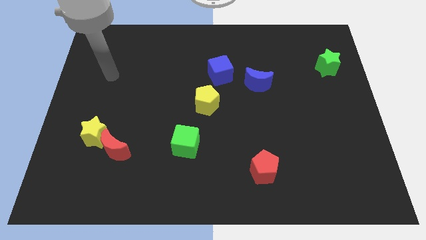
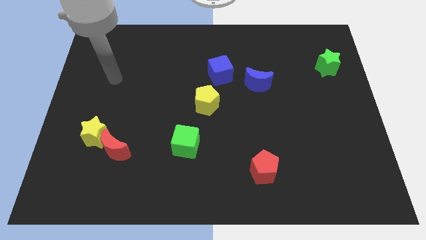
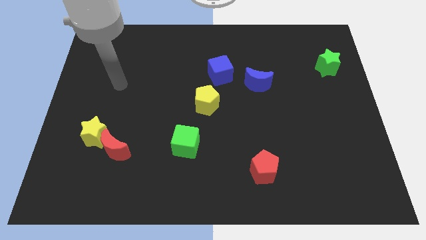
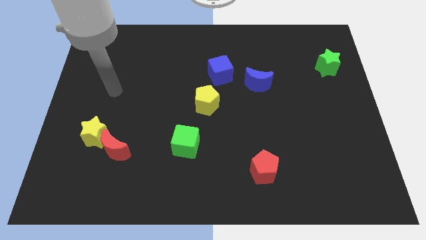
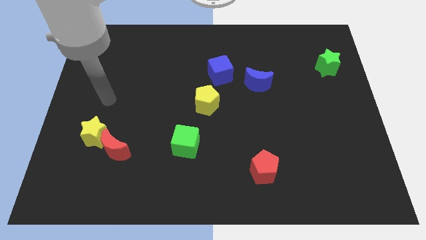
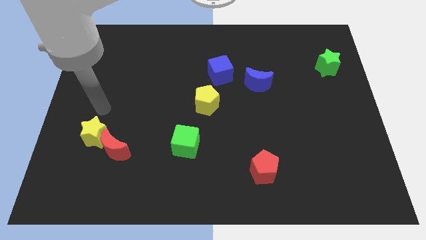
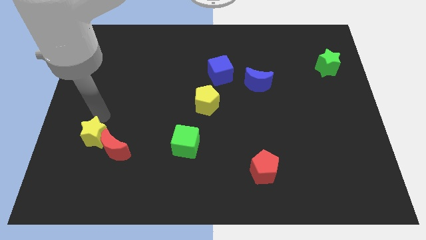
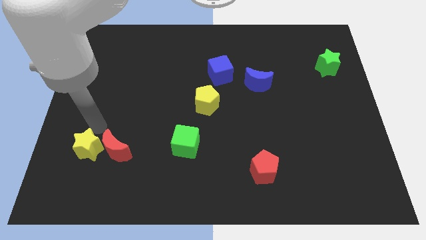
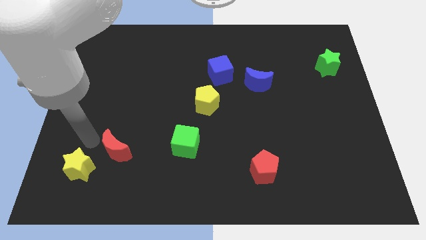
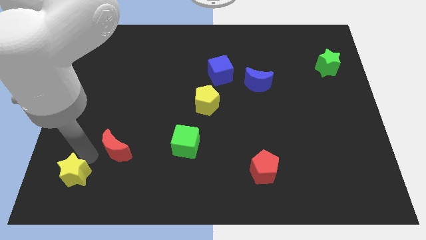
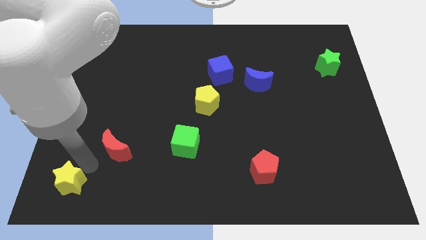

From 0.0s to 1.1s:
separate the red moon from the yellow star

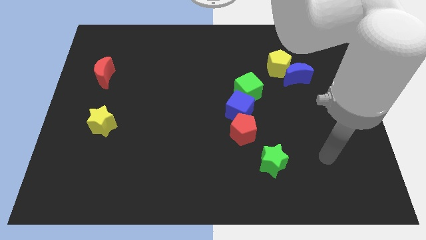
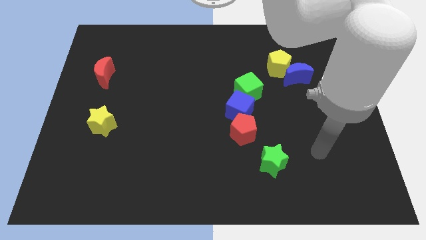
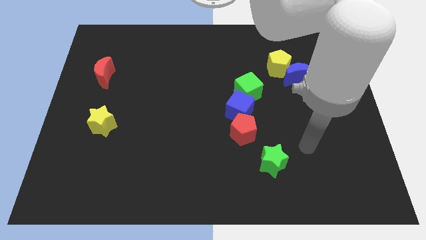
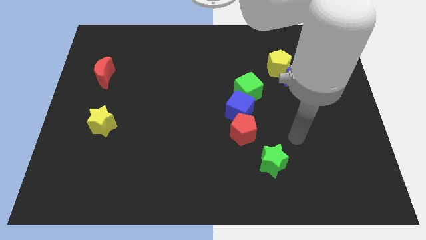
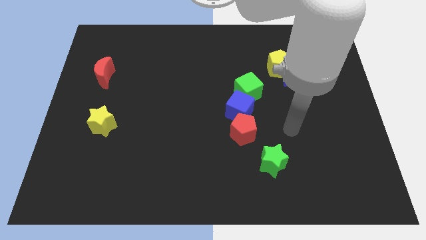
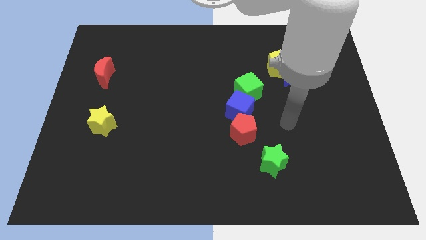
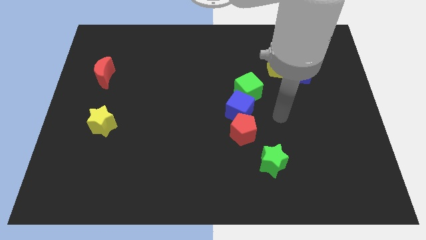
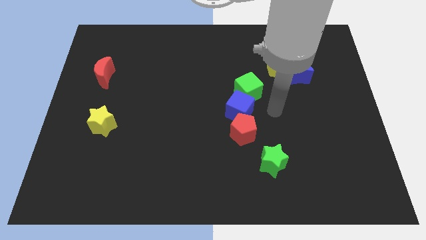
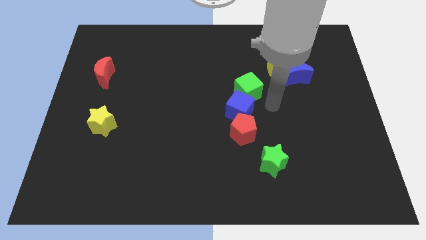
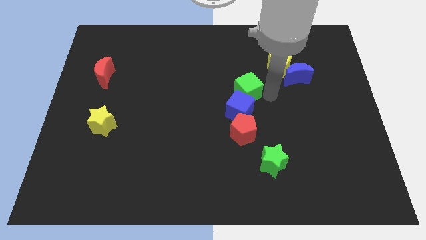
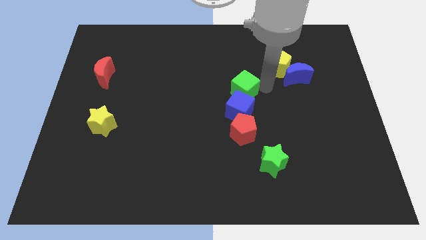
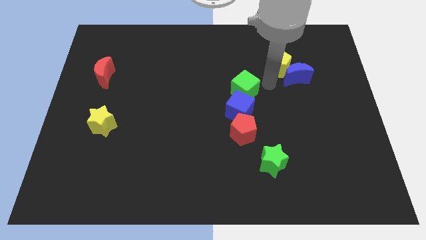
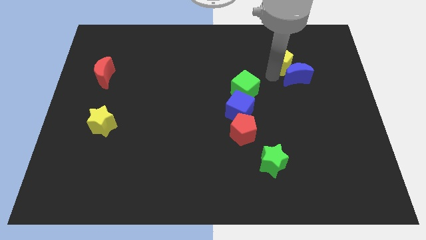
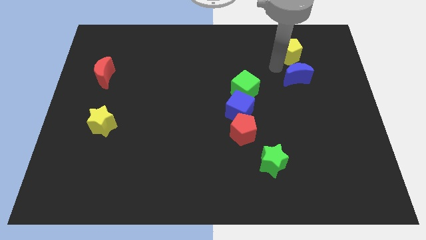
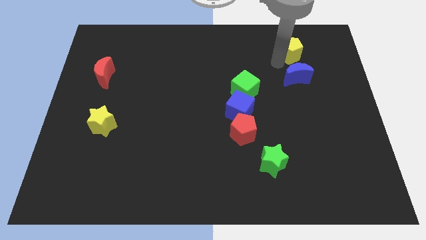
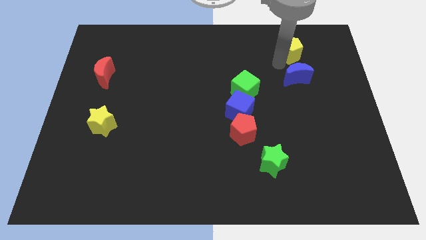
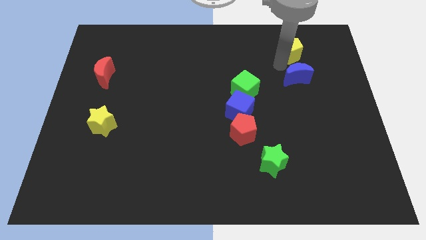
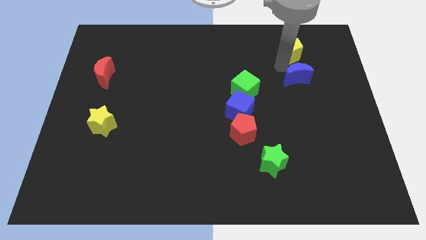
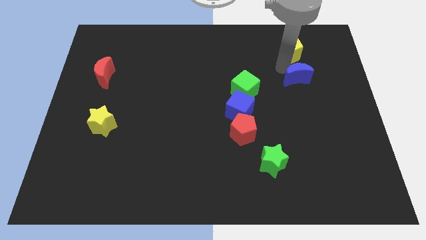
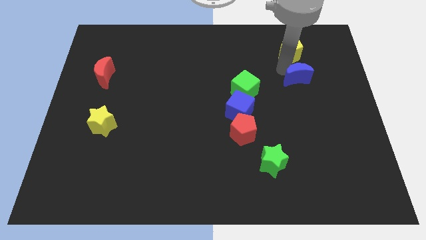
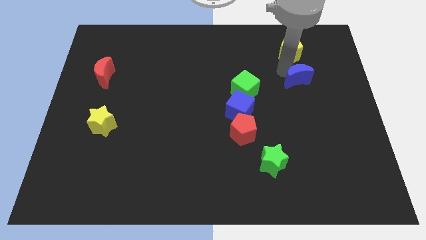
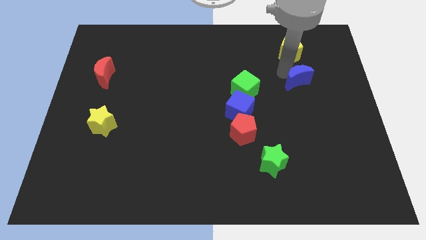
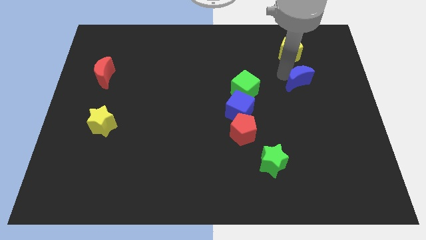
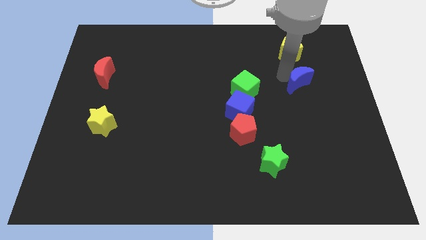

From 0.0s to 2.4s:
move the blue moon away from the yellow pentagon

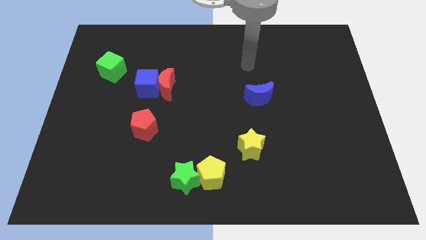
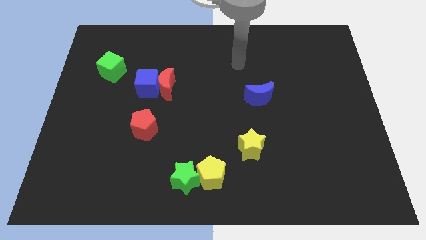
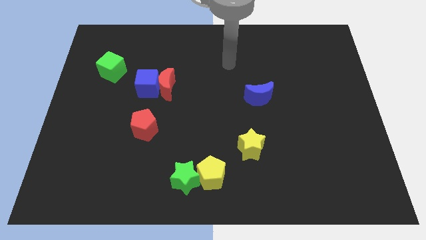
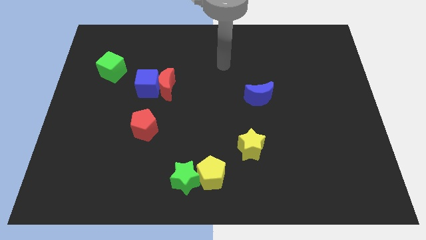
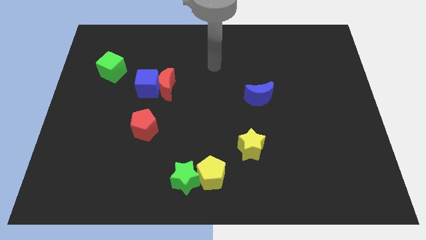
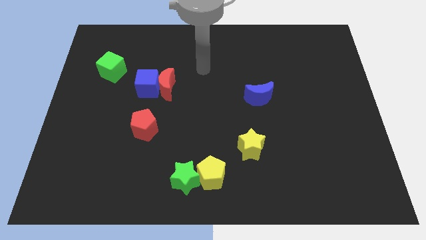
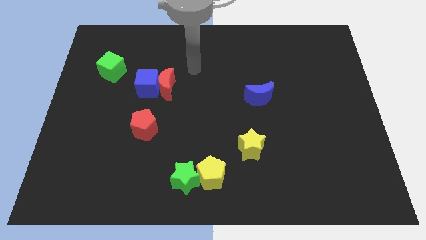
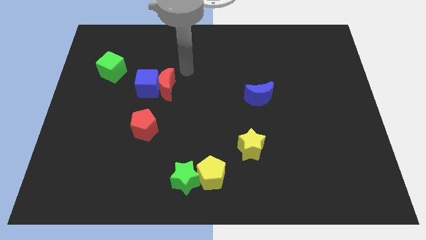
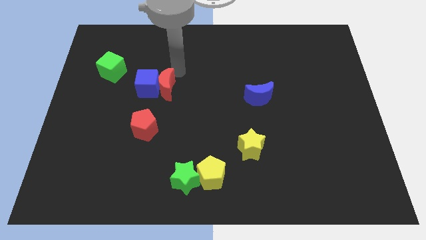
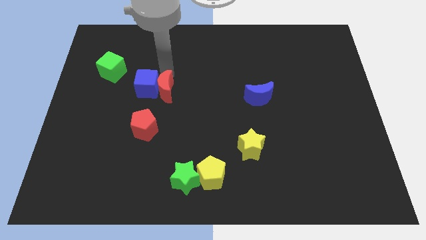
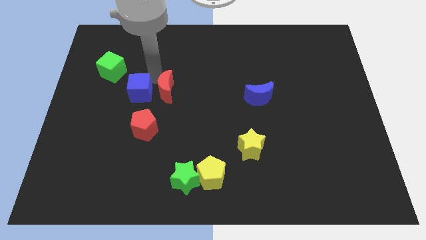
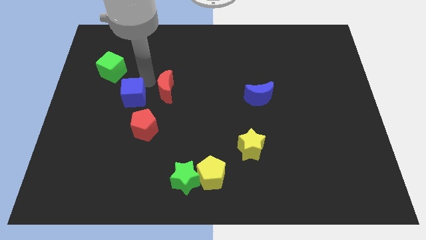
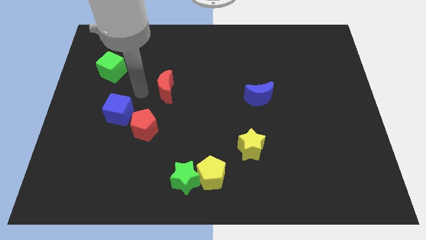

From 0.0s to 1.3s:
pull the red moon apart from the blue cube

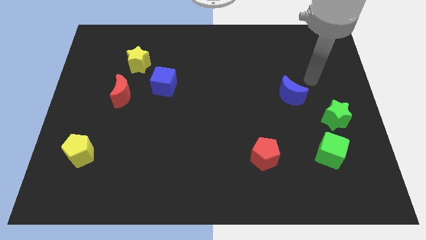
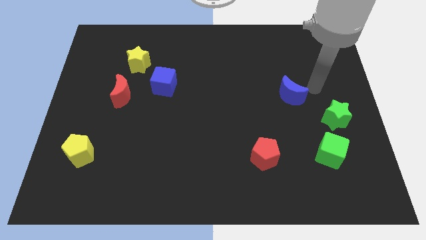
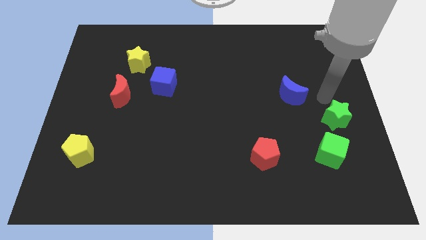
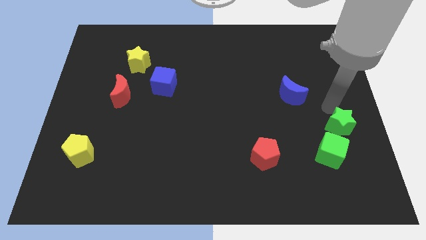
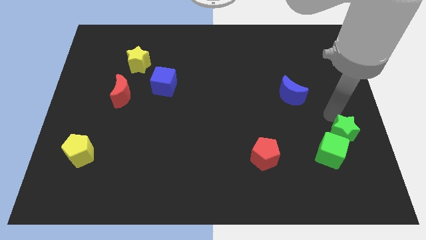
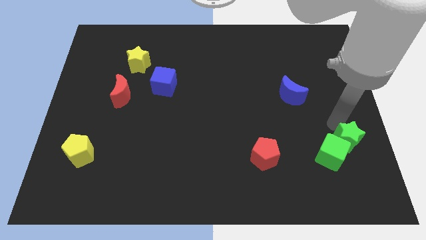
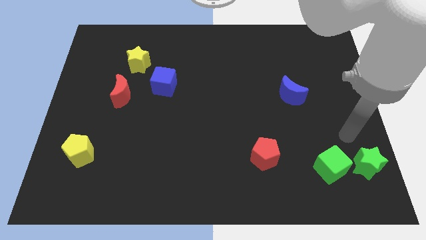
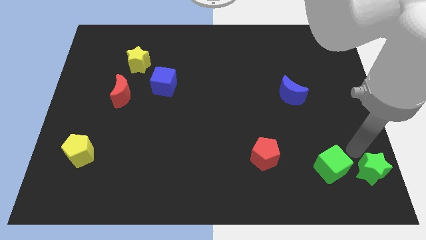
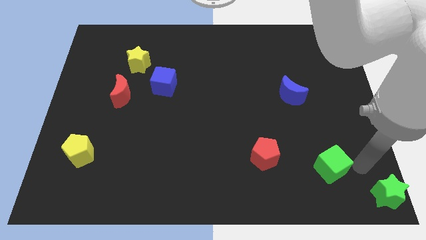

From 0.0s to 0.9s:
pull the green cube apart from the green star

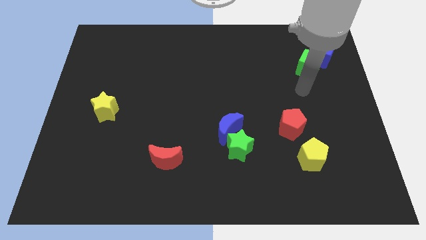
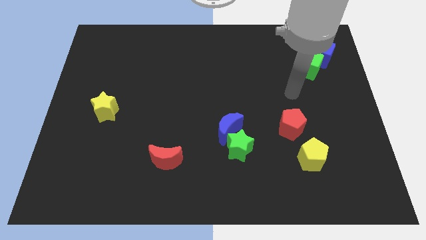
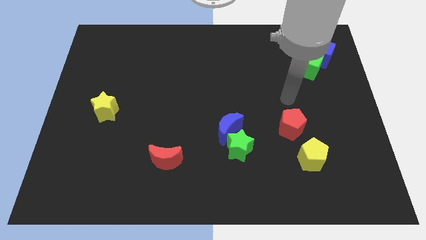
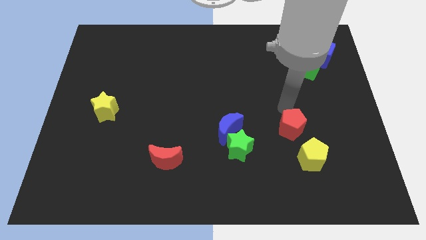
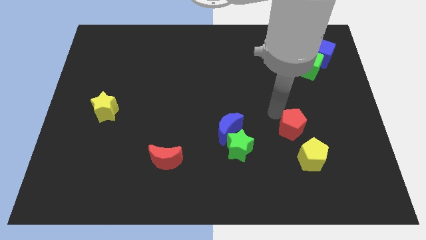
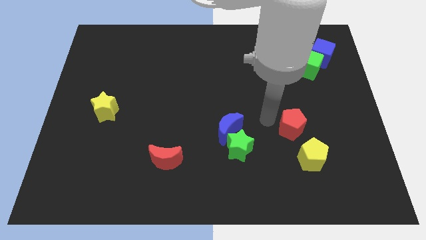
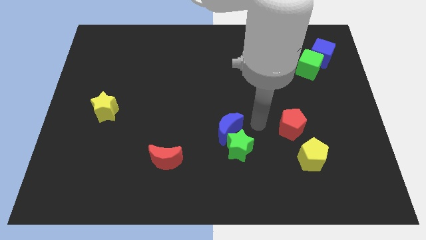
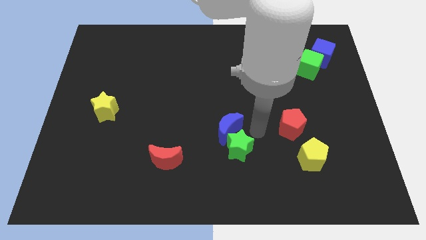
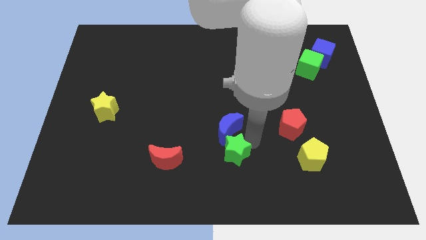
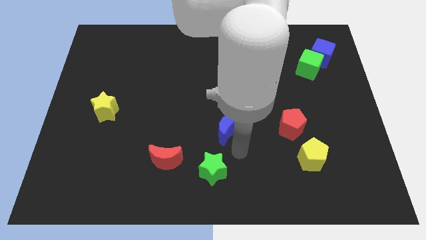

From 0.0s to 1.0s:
pull the blue moon apart from the green star

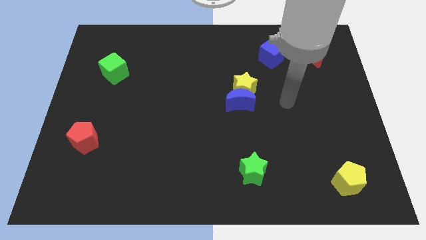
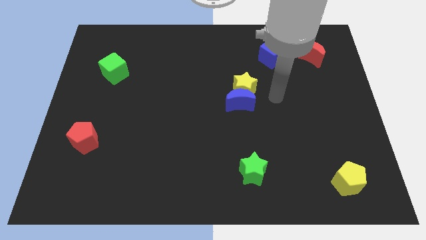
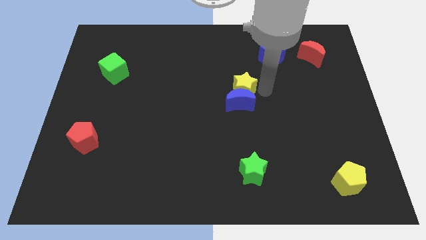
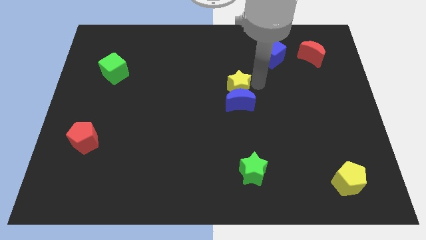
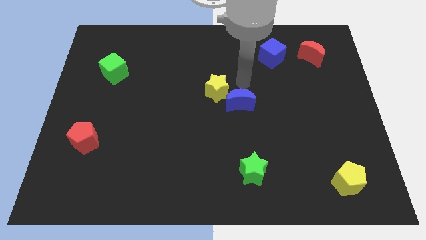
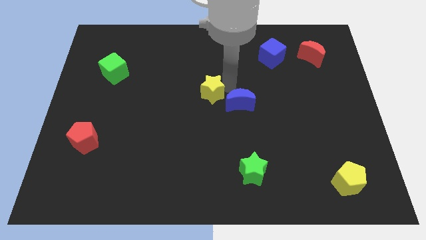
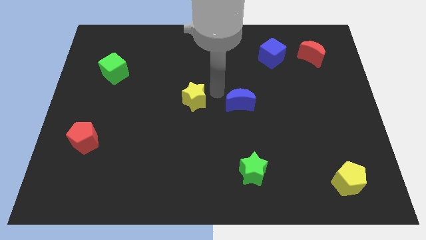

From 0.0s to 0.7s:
separate the blue moon from the yellow star

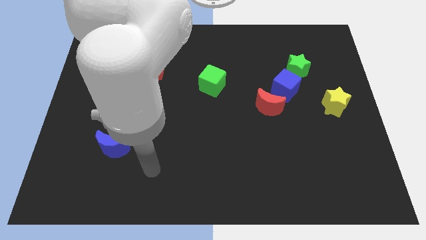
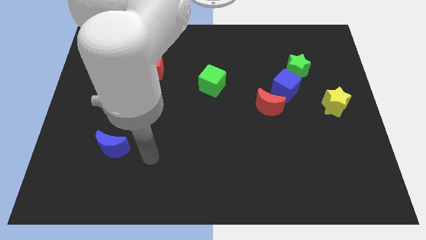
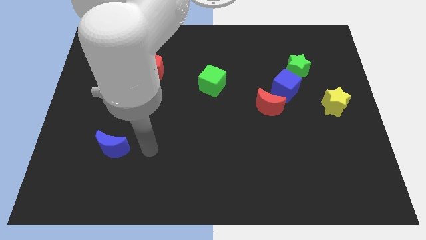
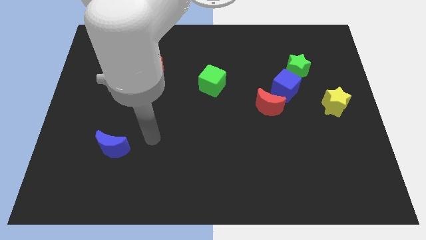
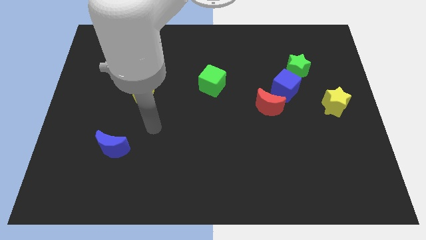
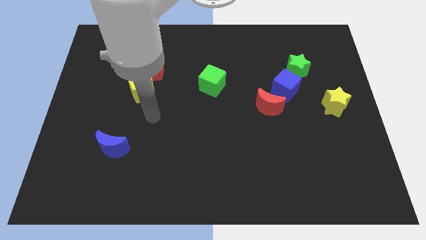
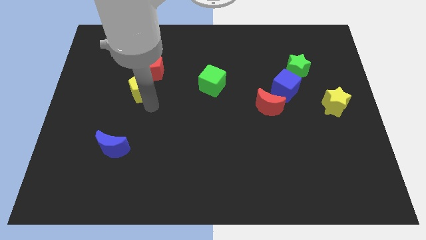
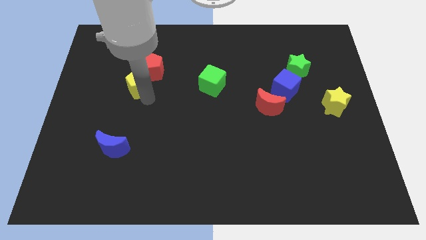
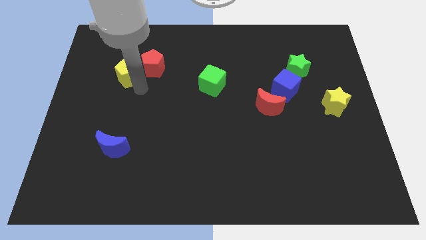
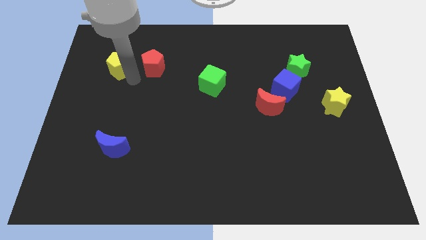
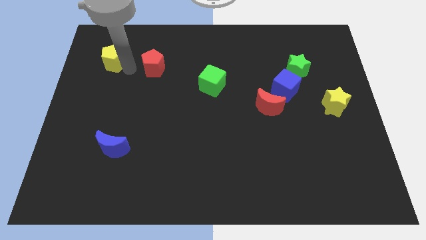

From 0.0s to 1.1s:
separate the red pentagon from the yellow pentagon

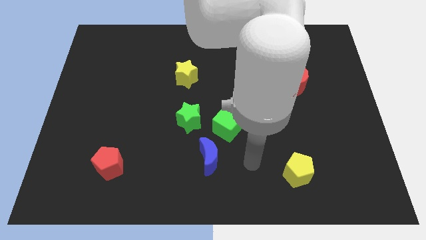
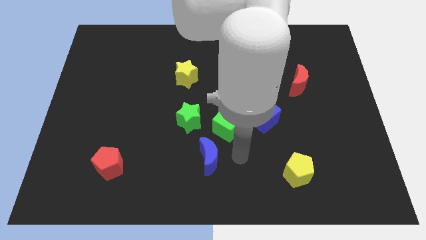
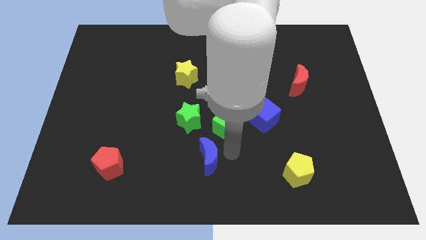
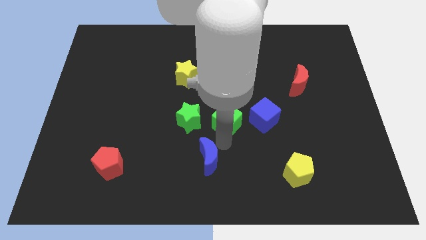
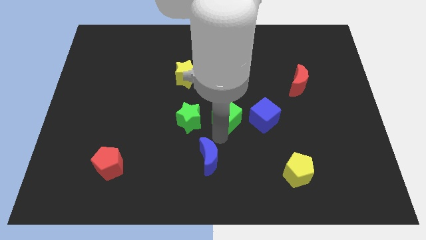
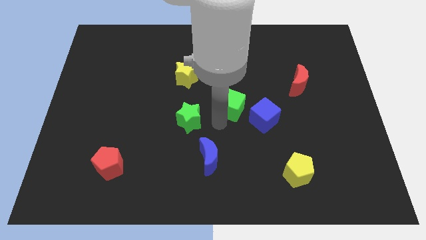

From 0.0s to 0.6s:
move the green star away from the green cube
